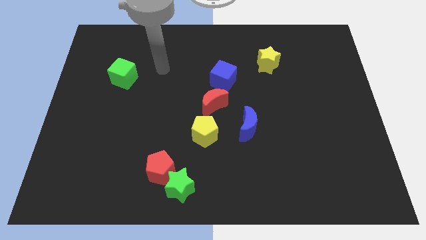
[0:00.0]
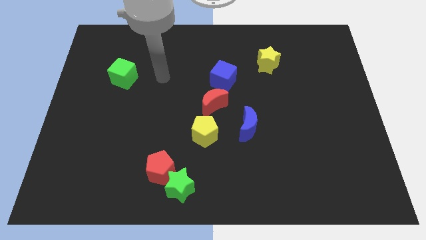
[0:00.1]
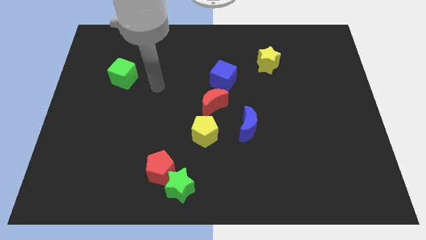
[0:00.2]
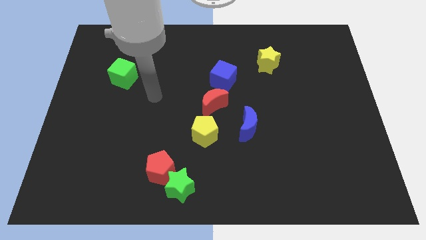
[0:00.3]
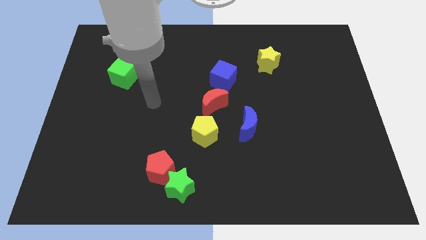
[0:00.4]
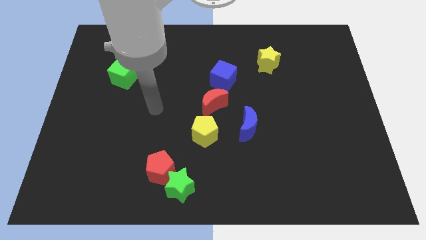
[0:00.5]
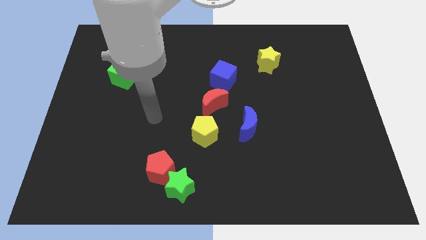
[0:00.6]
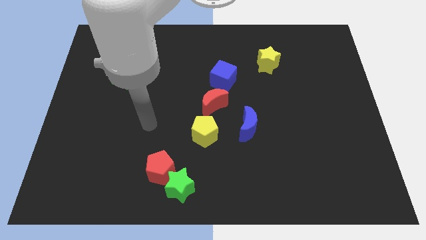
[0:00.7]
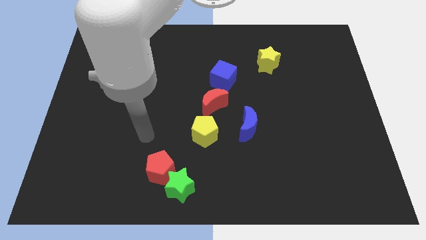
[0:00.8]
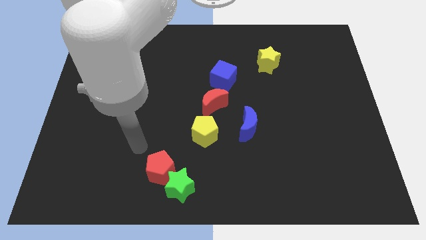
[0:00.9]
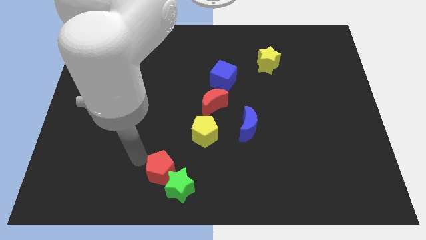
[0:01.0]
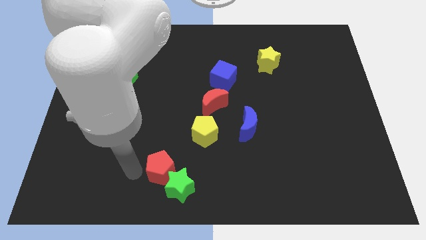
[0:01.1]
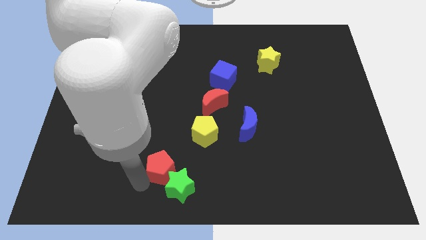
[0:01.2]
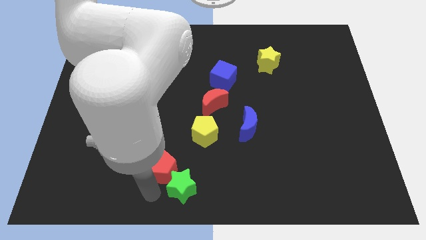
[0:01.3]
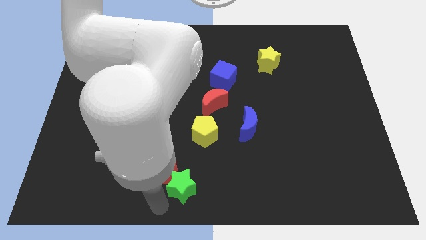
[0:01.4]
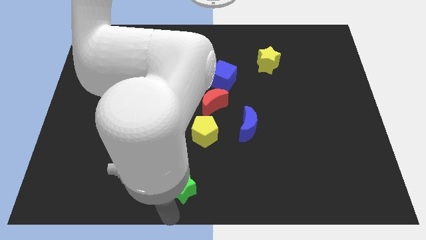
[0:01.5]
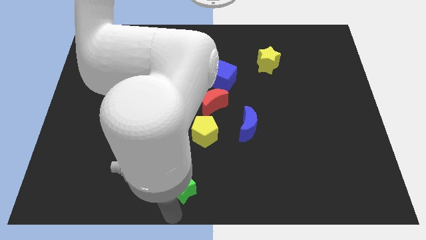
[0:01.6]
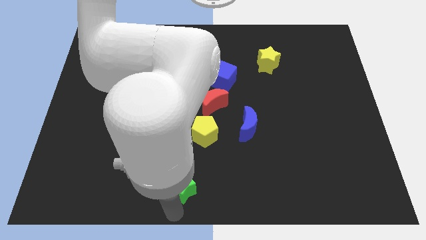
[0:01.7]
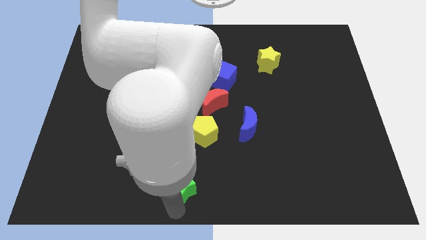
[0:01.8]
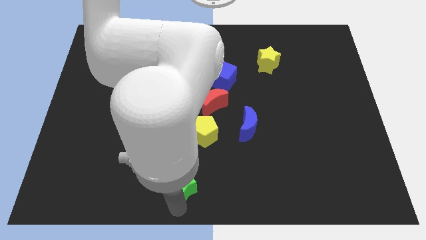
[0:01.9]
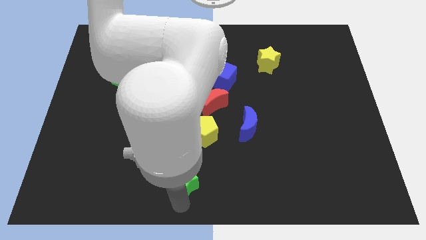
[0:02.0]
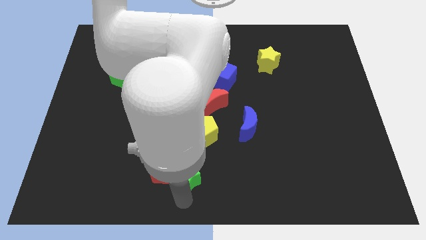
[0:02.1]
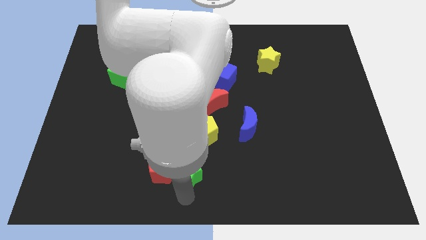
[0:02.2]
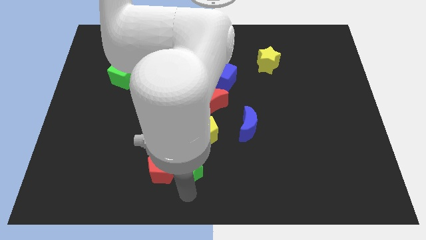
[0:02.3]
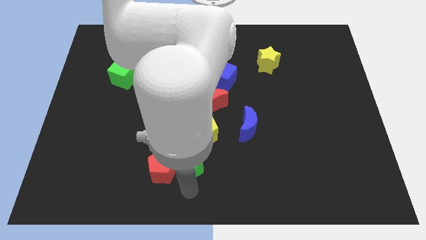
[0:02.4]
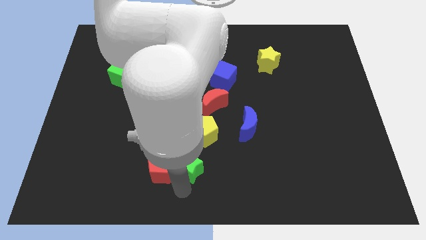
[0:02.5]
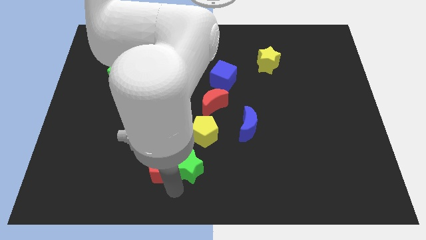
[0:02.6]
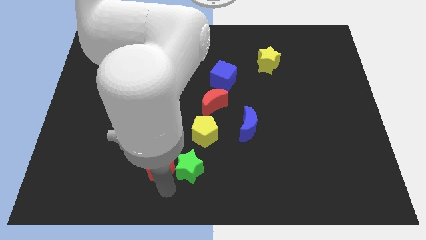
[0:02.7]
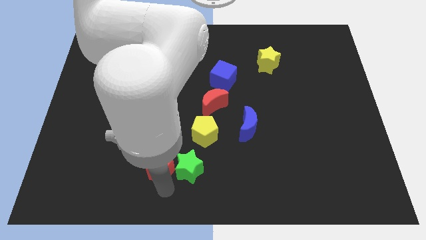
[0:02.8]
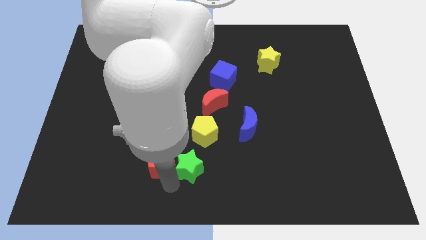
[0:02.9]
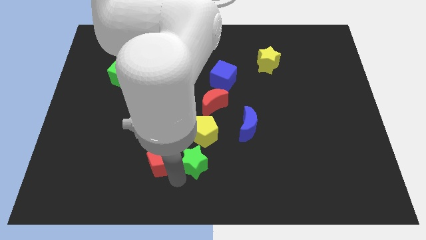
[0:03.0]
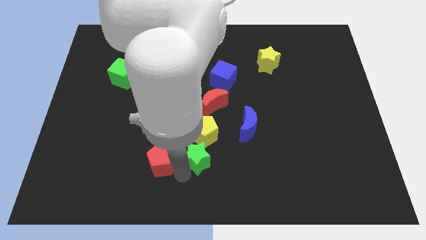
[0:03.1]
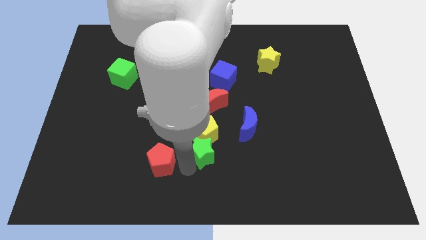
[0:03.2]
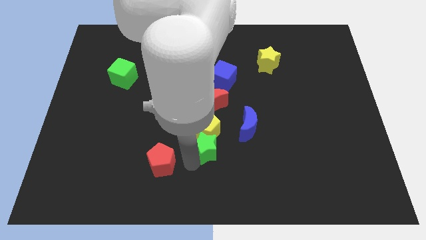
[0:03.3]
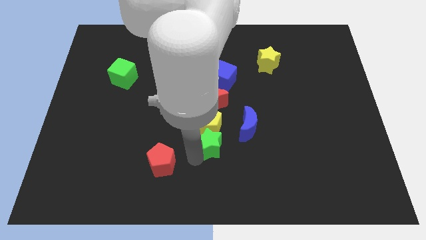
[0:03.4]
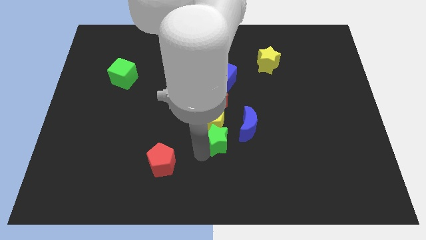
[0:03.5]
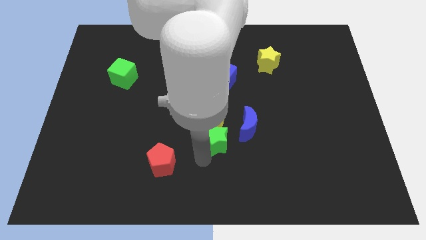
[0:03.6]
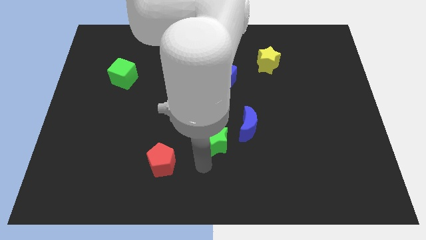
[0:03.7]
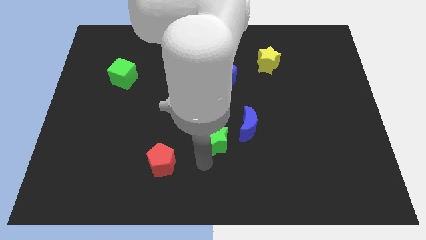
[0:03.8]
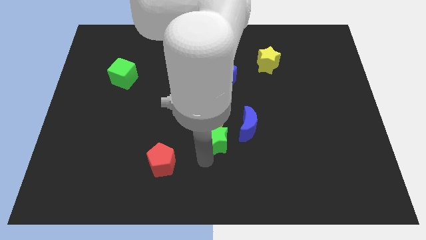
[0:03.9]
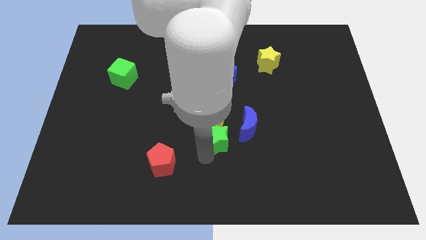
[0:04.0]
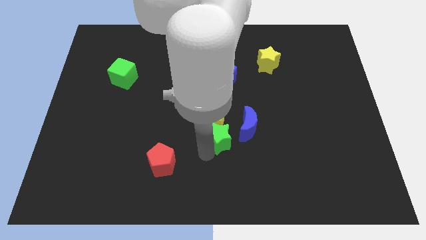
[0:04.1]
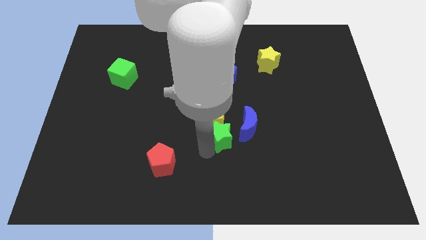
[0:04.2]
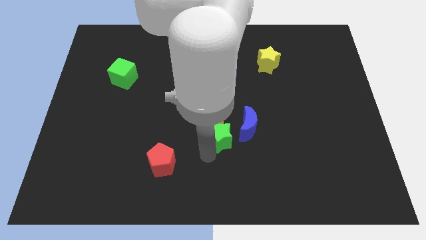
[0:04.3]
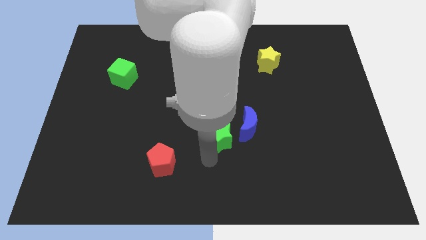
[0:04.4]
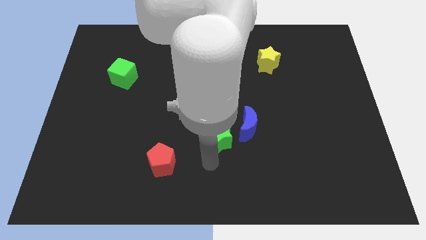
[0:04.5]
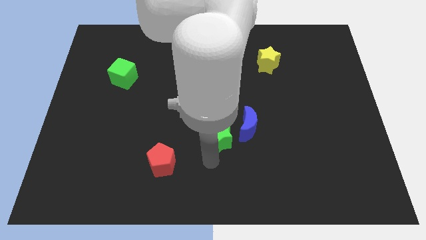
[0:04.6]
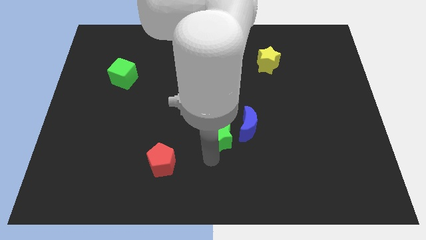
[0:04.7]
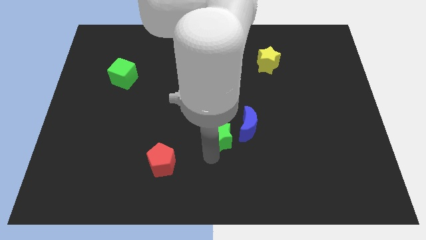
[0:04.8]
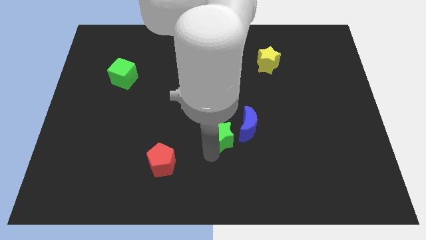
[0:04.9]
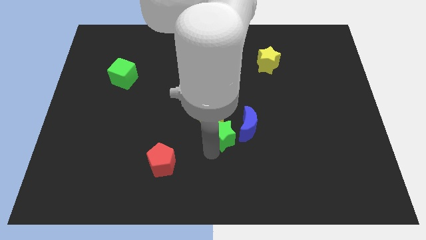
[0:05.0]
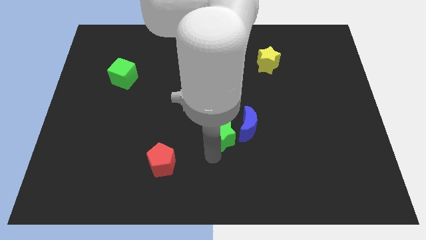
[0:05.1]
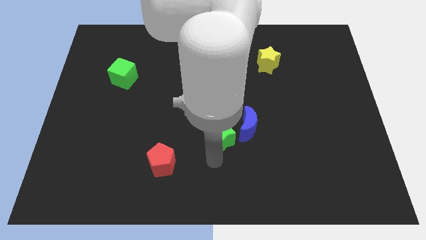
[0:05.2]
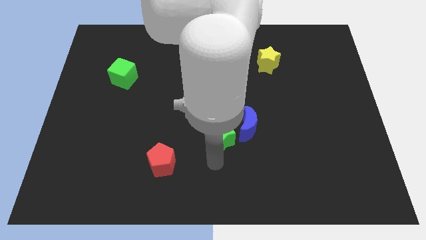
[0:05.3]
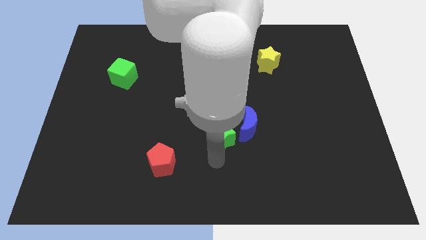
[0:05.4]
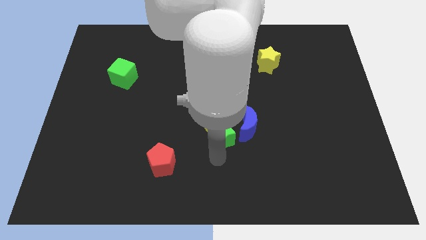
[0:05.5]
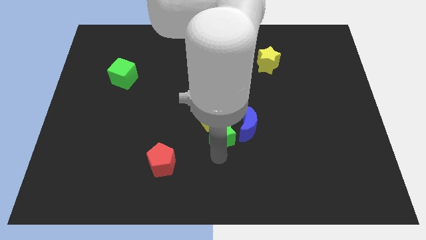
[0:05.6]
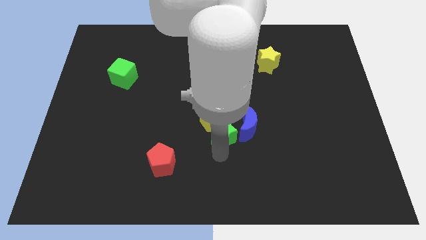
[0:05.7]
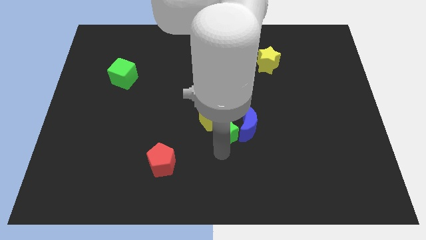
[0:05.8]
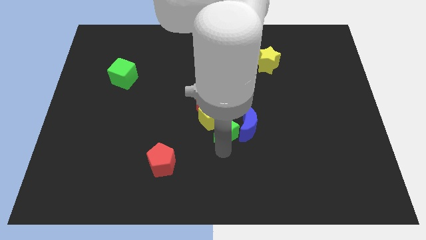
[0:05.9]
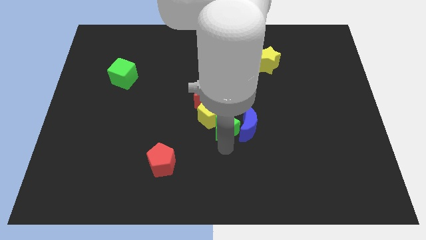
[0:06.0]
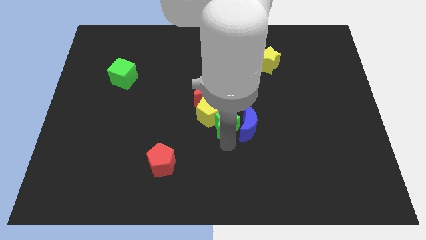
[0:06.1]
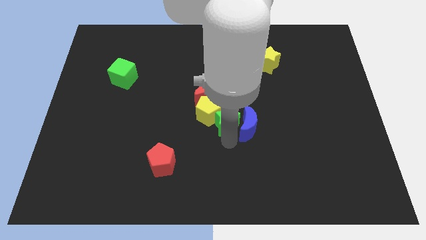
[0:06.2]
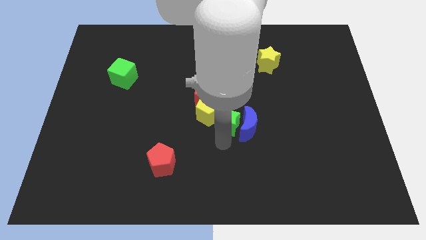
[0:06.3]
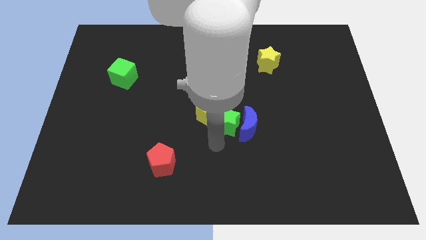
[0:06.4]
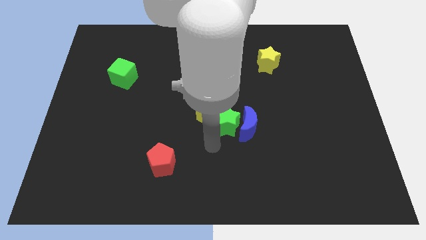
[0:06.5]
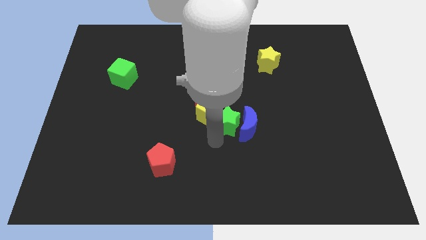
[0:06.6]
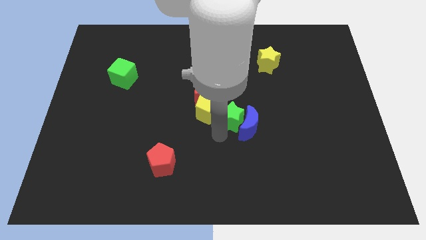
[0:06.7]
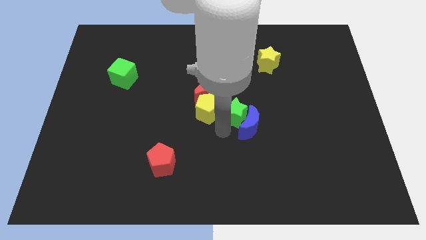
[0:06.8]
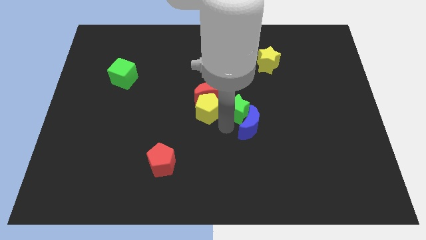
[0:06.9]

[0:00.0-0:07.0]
move the green star to the right of the red moon

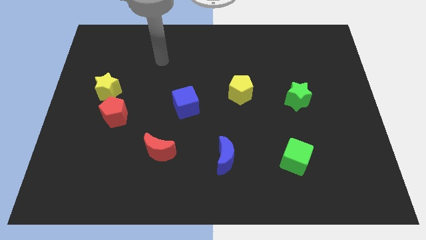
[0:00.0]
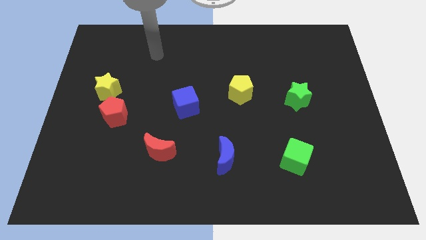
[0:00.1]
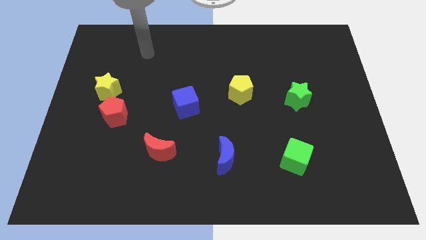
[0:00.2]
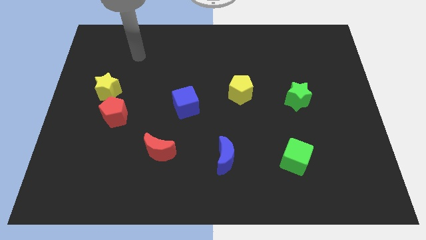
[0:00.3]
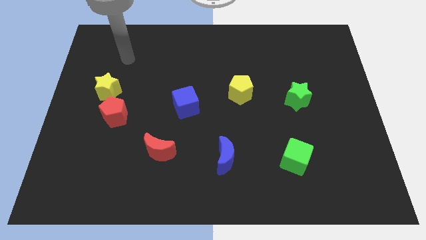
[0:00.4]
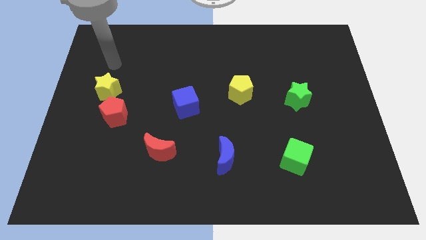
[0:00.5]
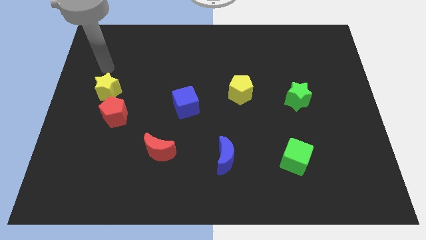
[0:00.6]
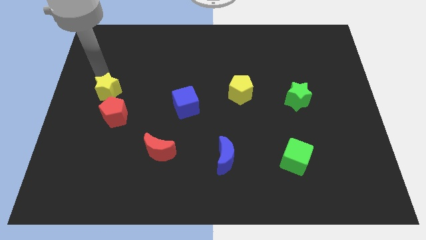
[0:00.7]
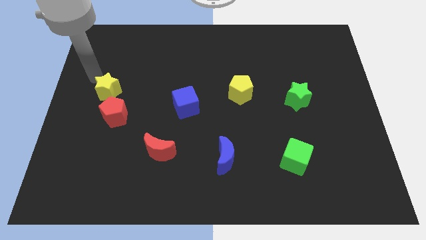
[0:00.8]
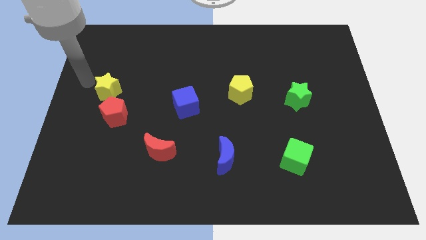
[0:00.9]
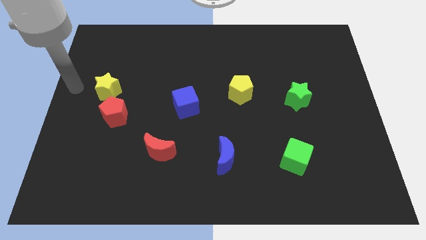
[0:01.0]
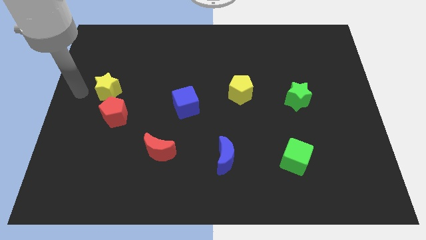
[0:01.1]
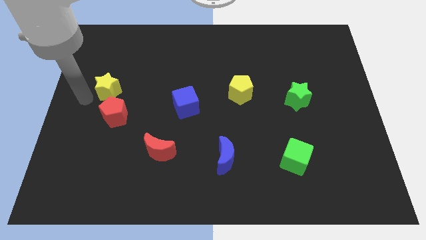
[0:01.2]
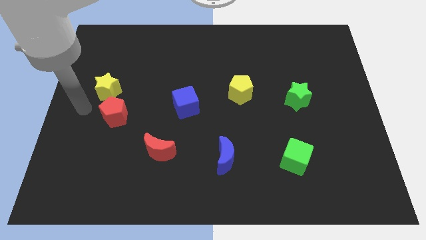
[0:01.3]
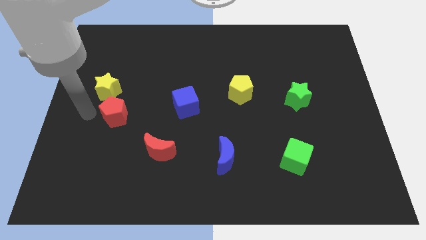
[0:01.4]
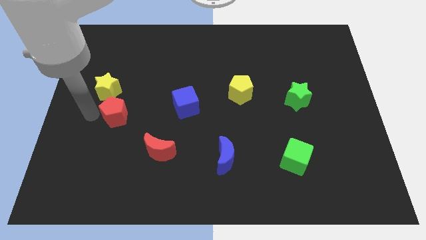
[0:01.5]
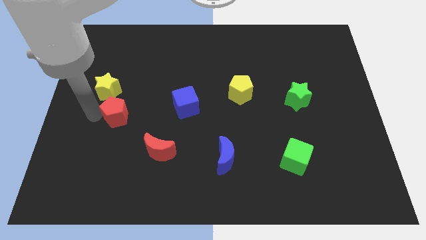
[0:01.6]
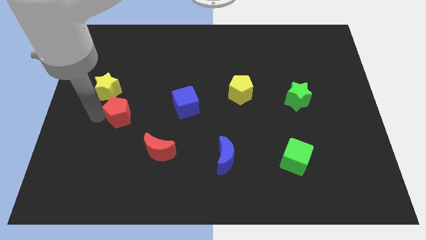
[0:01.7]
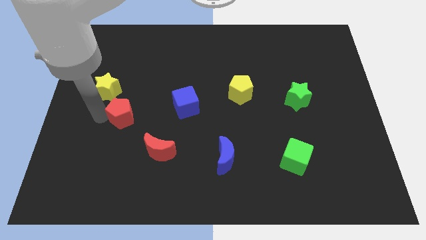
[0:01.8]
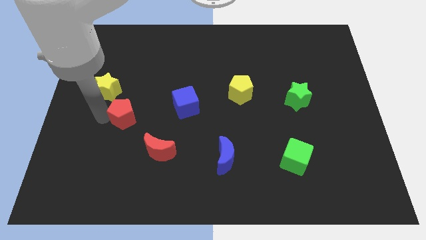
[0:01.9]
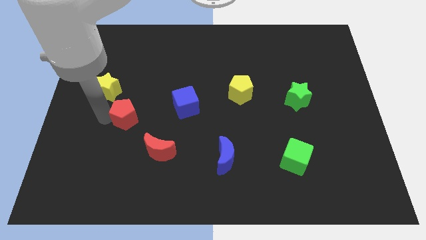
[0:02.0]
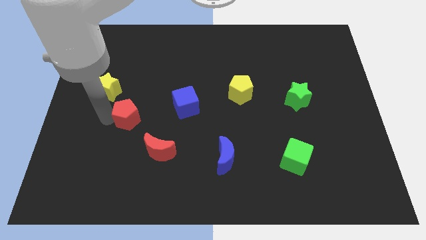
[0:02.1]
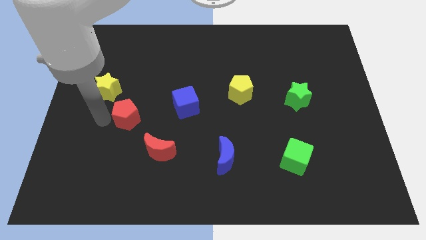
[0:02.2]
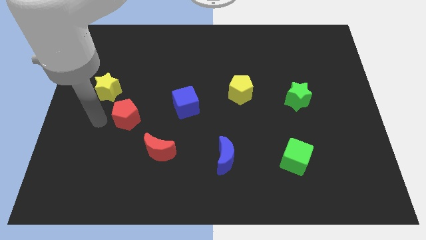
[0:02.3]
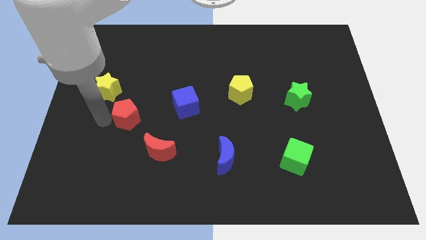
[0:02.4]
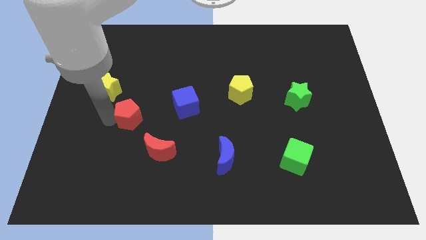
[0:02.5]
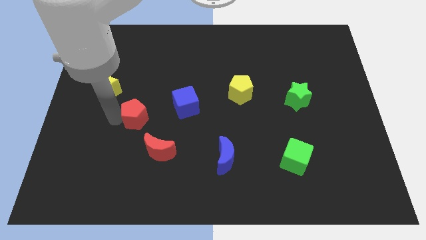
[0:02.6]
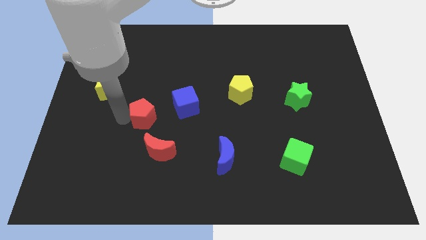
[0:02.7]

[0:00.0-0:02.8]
push the red pentagon to the top side of the red moon
